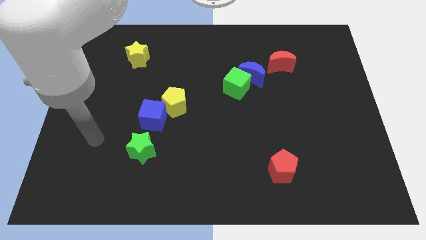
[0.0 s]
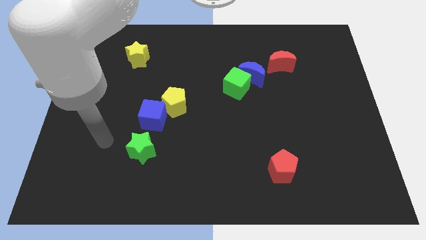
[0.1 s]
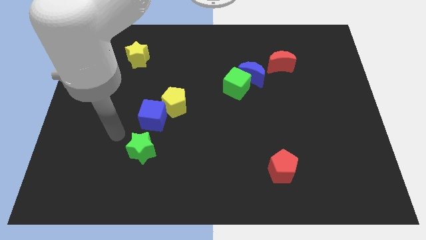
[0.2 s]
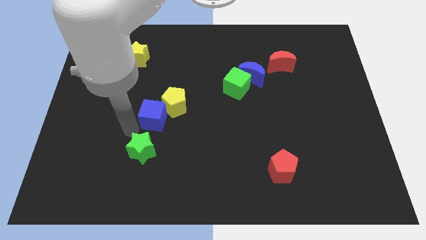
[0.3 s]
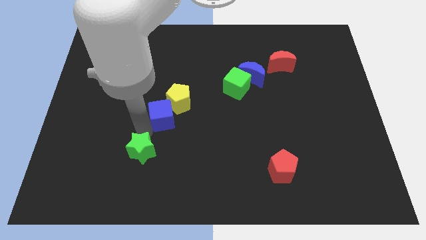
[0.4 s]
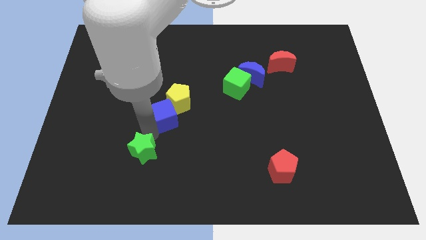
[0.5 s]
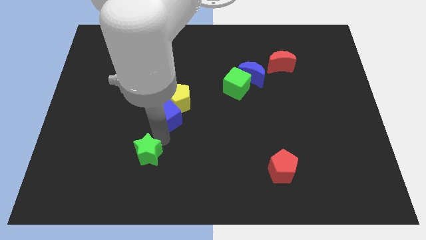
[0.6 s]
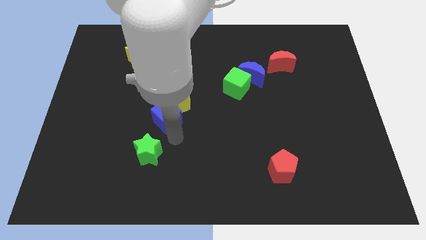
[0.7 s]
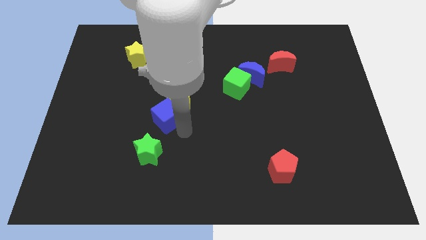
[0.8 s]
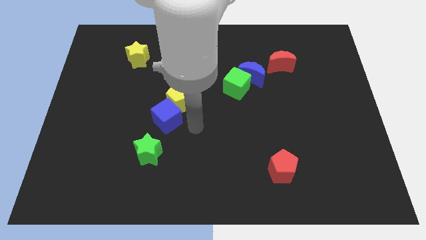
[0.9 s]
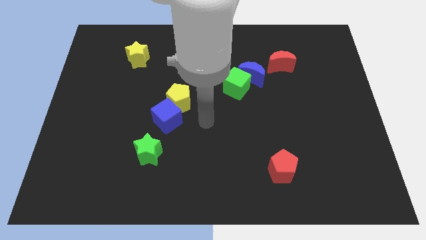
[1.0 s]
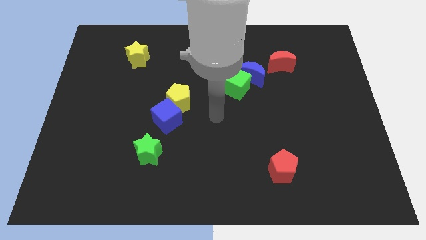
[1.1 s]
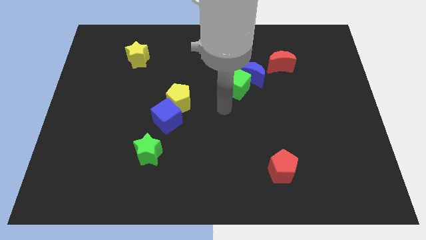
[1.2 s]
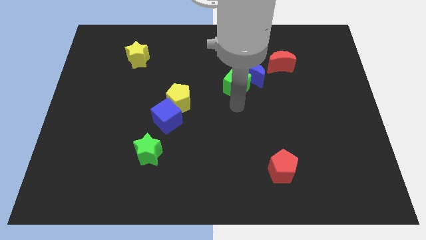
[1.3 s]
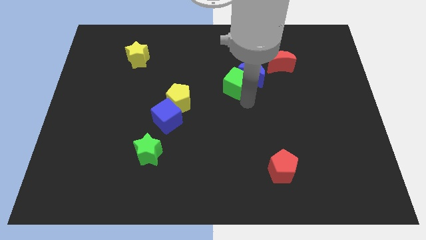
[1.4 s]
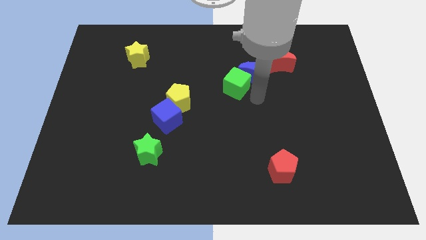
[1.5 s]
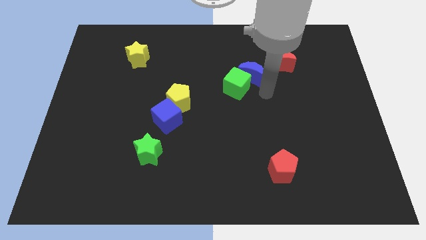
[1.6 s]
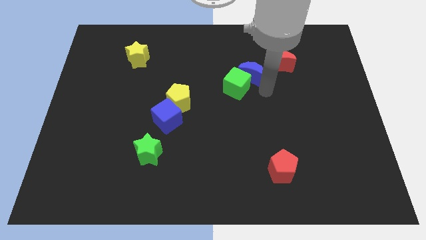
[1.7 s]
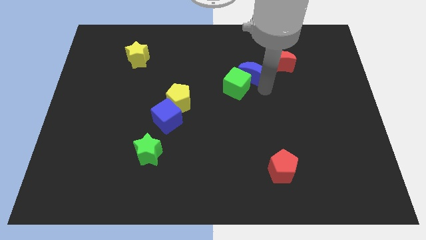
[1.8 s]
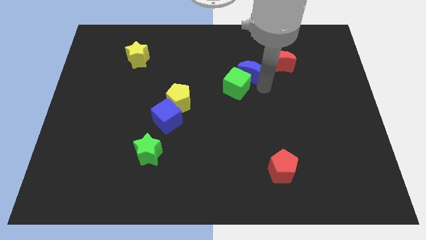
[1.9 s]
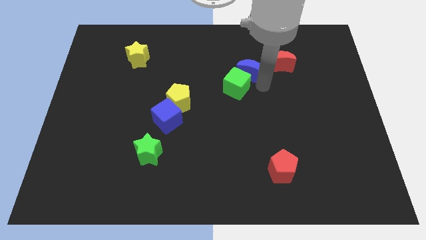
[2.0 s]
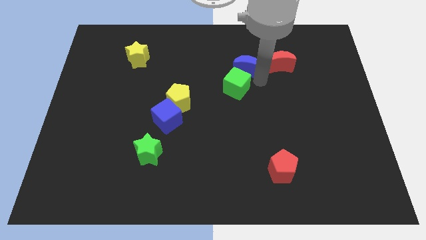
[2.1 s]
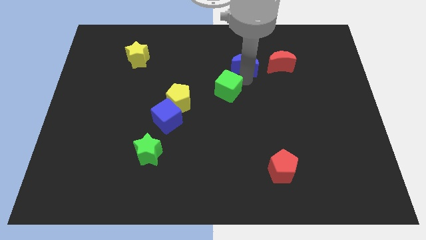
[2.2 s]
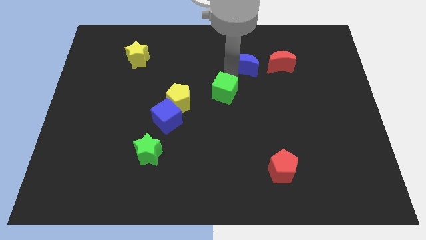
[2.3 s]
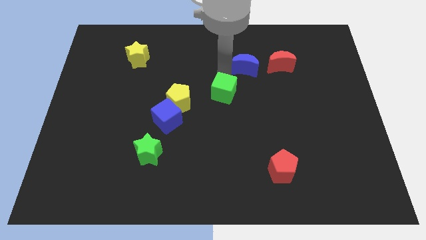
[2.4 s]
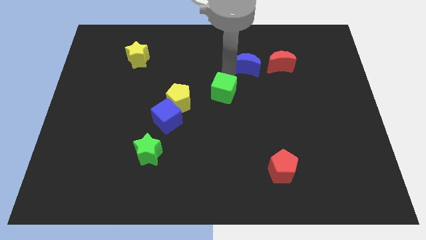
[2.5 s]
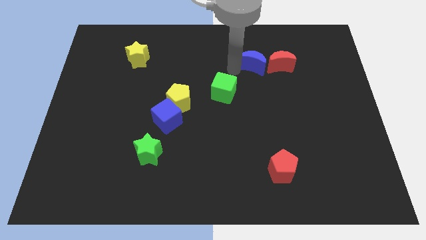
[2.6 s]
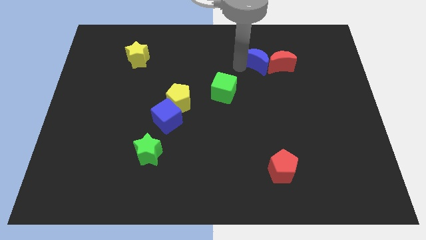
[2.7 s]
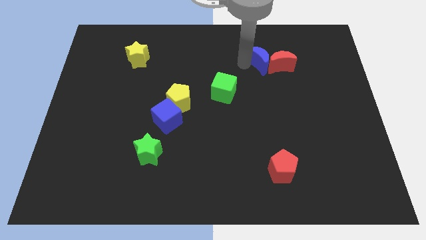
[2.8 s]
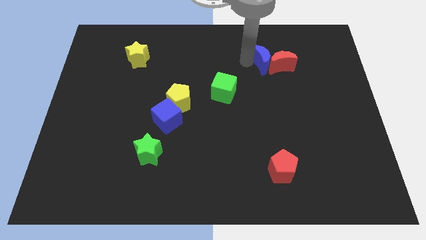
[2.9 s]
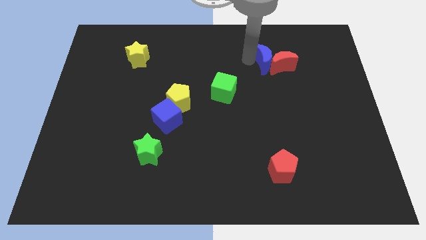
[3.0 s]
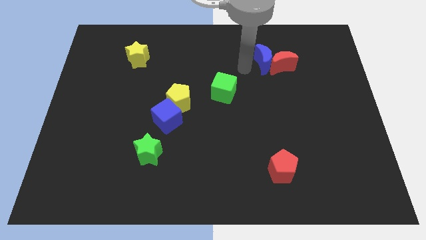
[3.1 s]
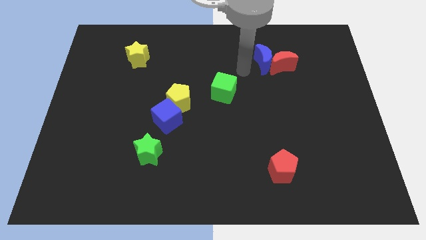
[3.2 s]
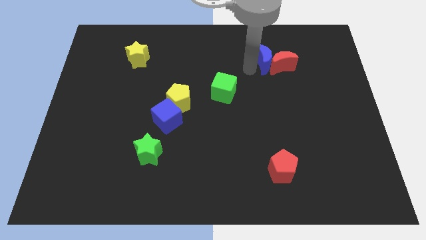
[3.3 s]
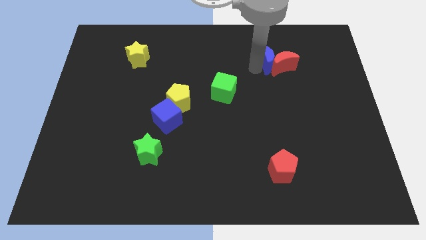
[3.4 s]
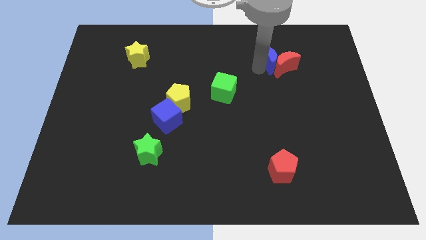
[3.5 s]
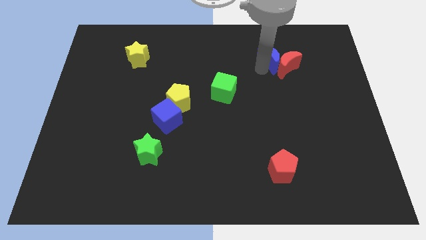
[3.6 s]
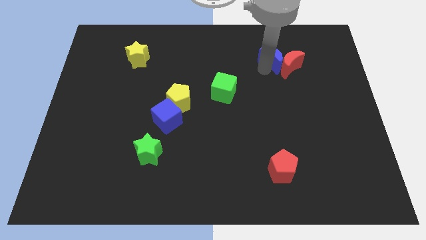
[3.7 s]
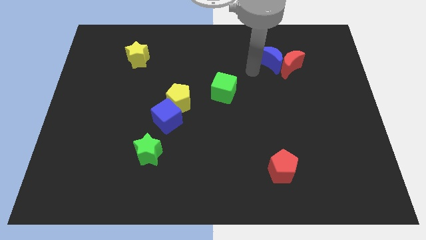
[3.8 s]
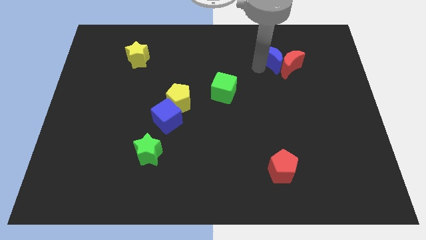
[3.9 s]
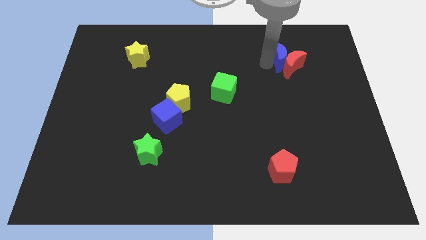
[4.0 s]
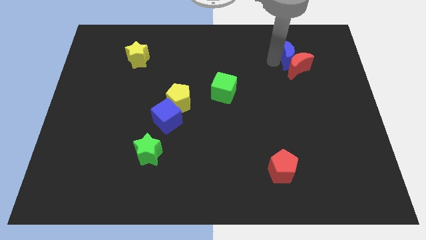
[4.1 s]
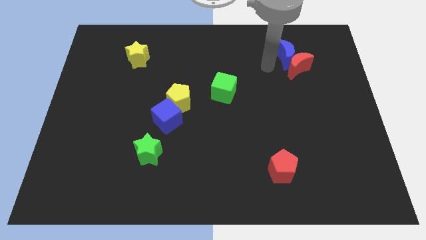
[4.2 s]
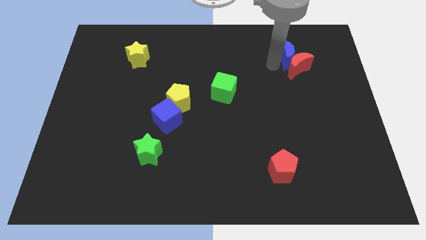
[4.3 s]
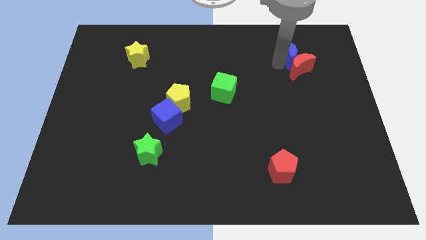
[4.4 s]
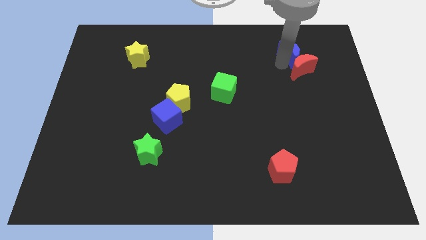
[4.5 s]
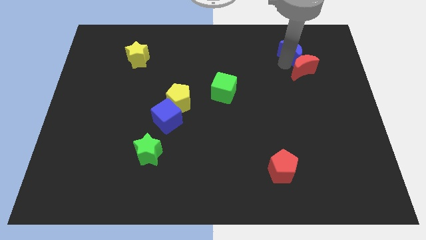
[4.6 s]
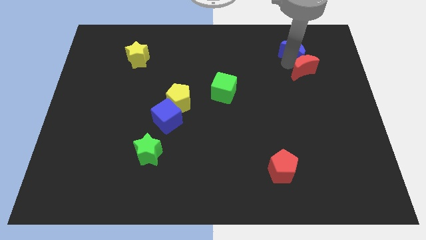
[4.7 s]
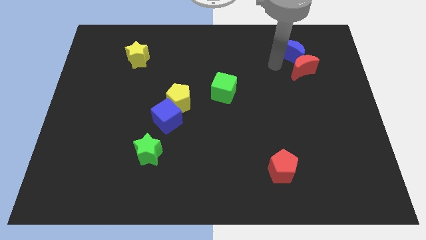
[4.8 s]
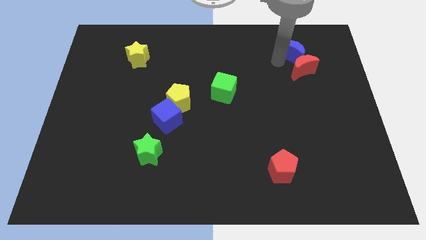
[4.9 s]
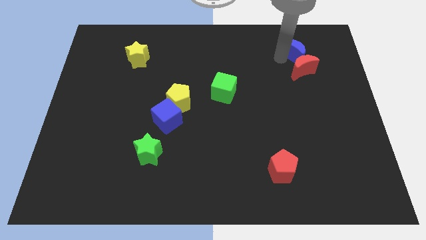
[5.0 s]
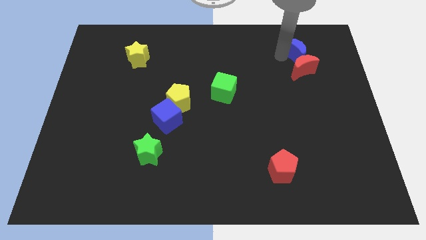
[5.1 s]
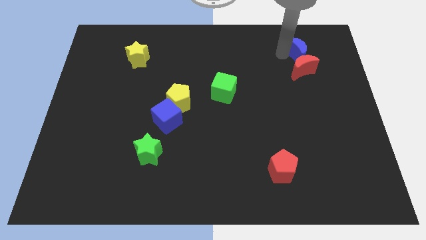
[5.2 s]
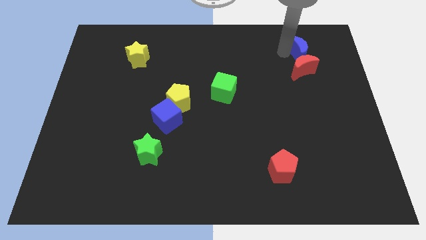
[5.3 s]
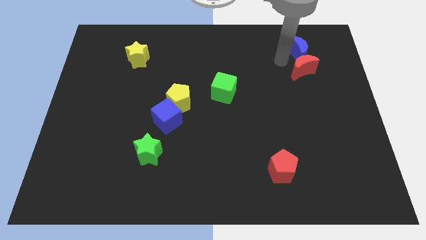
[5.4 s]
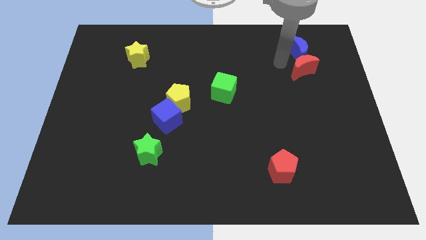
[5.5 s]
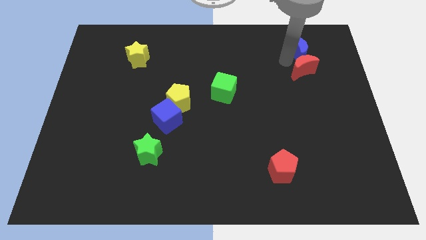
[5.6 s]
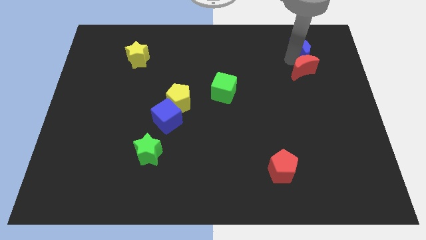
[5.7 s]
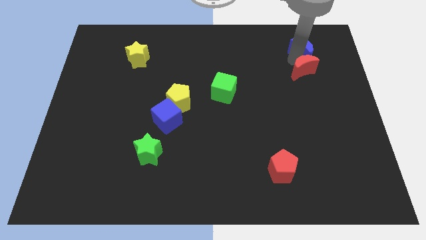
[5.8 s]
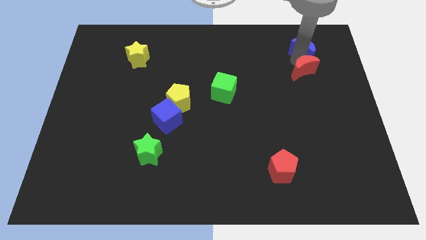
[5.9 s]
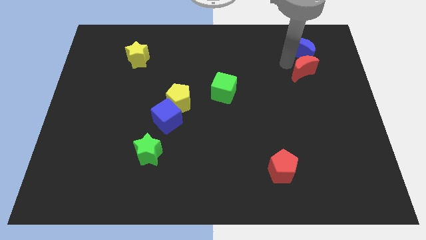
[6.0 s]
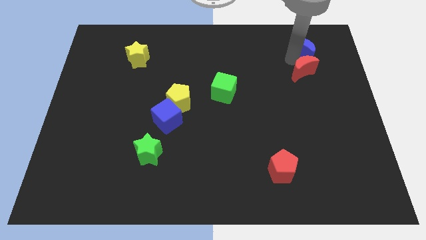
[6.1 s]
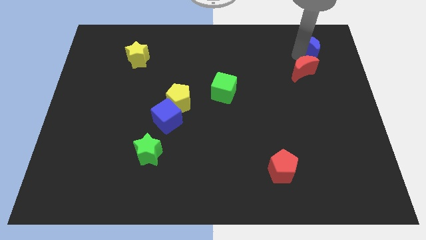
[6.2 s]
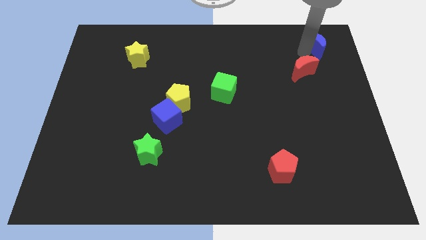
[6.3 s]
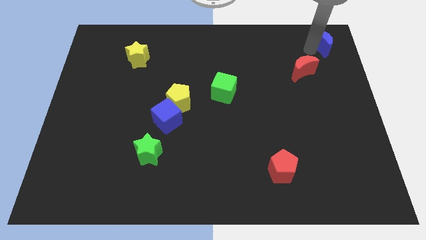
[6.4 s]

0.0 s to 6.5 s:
push the blue moon to the top right corner
